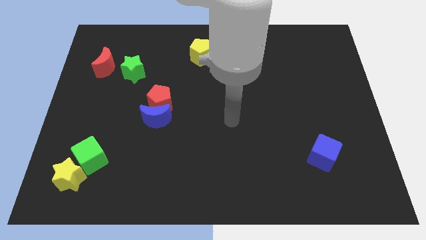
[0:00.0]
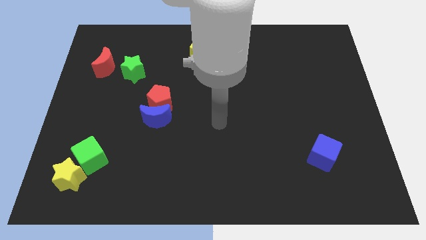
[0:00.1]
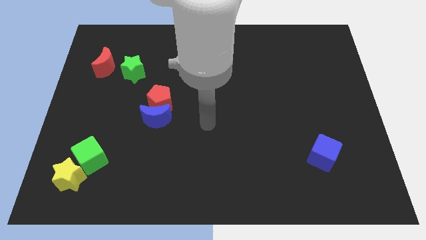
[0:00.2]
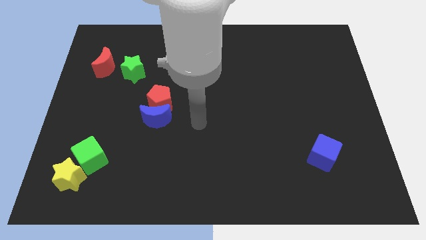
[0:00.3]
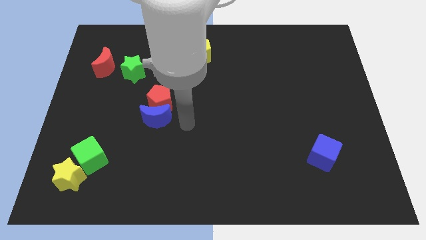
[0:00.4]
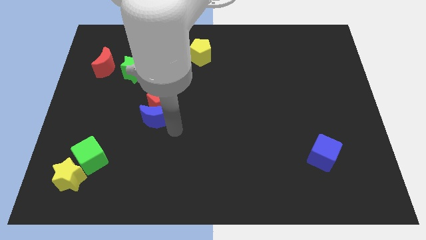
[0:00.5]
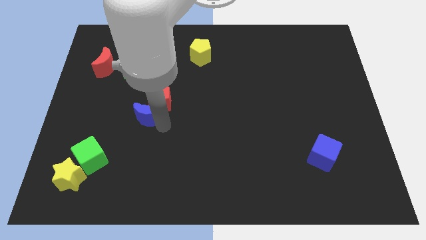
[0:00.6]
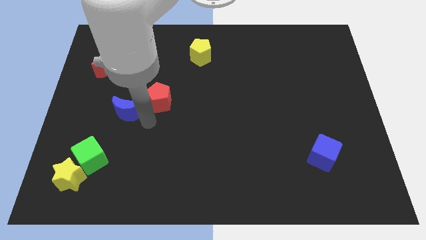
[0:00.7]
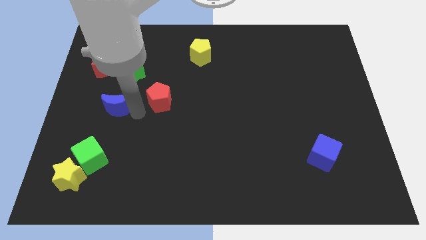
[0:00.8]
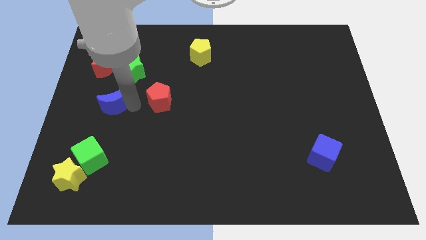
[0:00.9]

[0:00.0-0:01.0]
pull the red pentagon apart from the blue moon

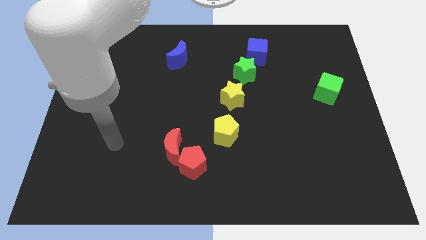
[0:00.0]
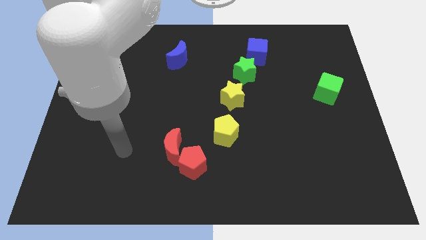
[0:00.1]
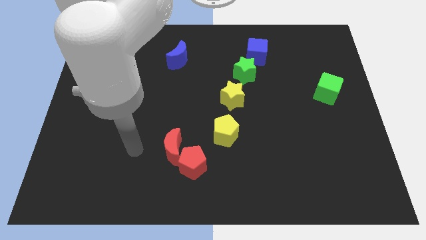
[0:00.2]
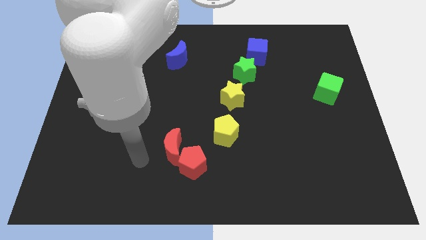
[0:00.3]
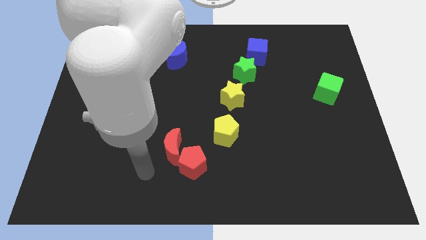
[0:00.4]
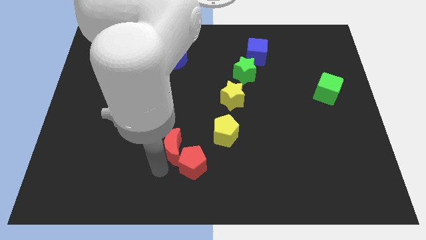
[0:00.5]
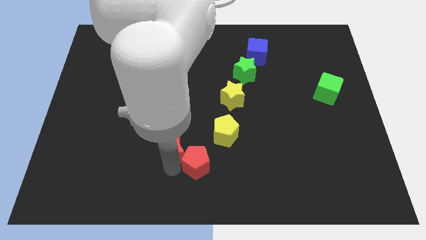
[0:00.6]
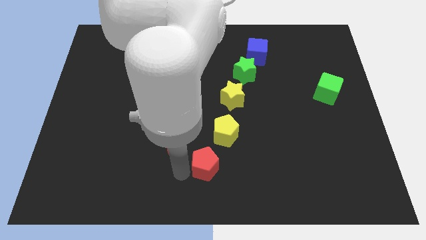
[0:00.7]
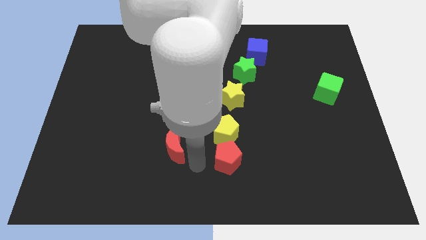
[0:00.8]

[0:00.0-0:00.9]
separate the red moon from the red pentagon

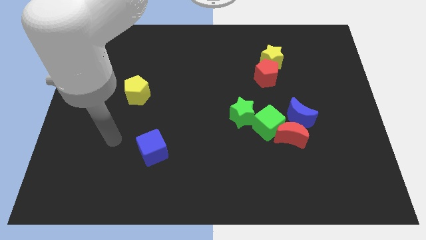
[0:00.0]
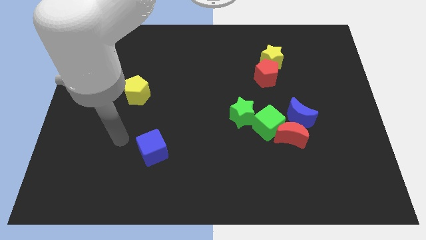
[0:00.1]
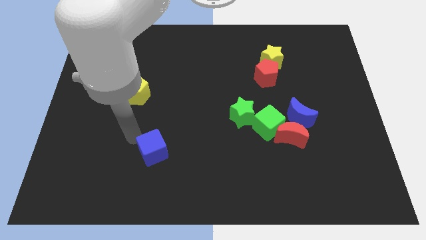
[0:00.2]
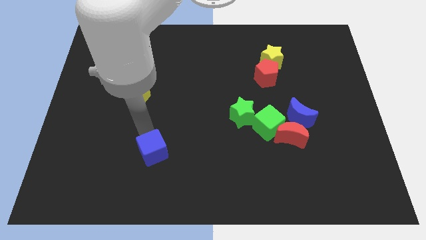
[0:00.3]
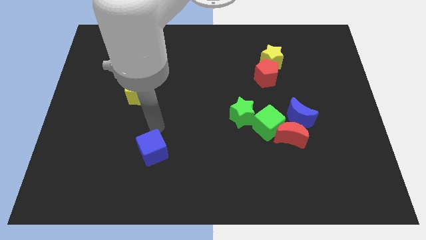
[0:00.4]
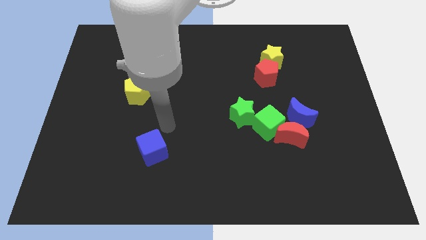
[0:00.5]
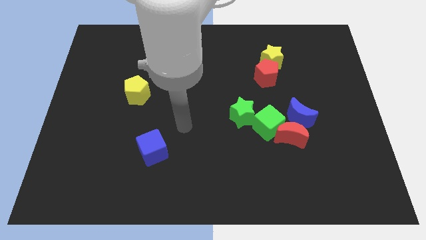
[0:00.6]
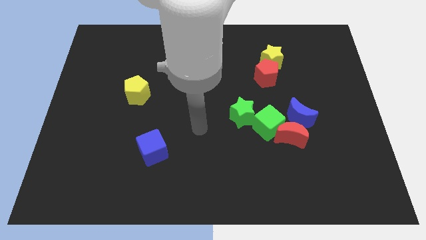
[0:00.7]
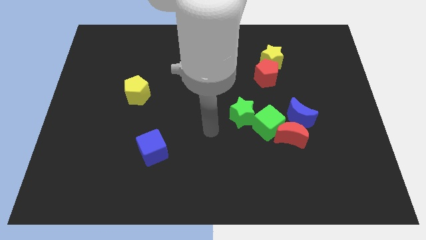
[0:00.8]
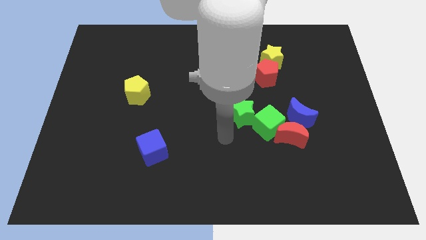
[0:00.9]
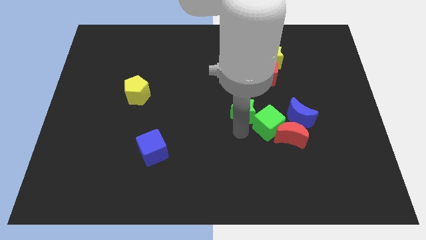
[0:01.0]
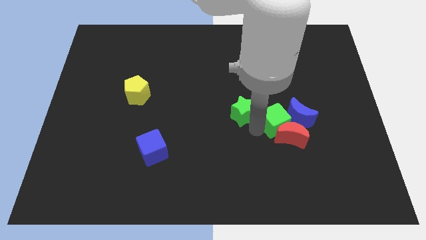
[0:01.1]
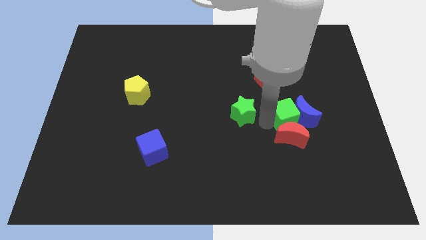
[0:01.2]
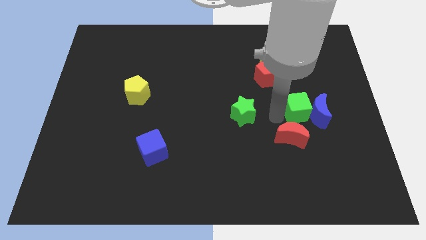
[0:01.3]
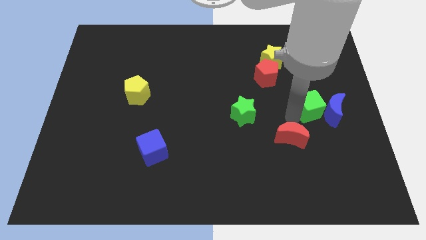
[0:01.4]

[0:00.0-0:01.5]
pull the red moon apart from the green cube and blue moon

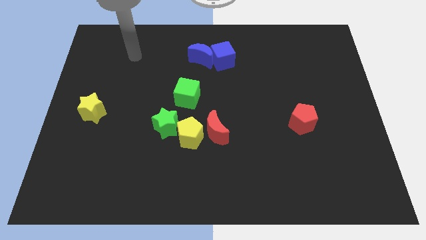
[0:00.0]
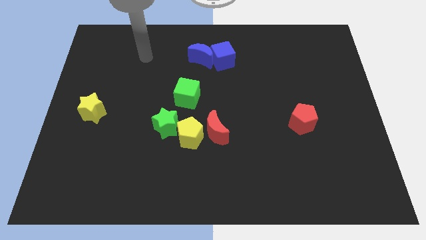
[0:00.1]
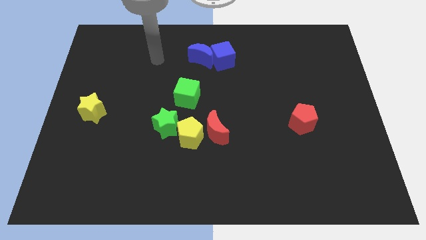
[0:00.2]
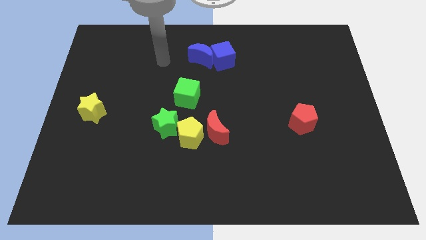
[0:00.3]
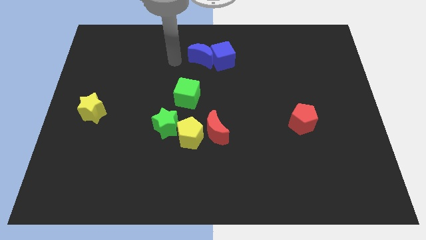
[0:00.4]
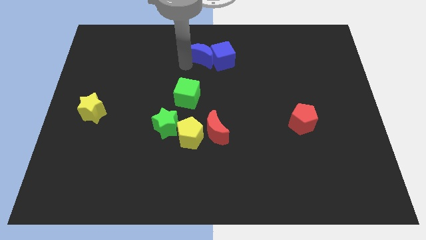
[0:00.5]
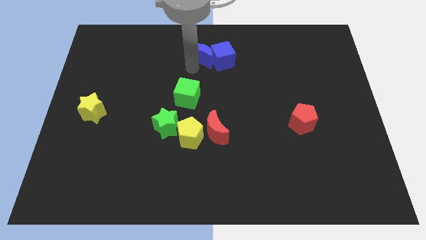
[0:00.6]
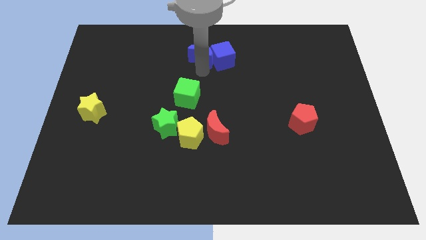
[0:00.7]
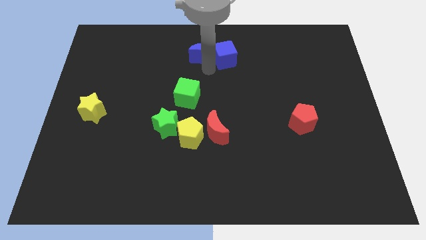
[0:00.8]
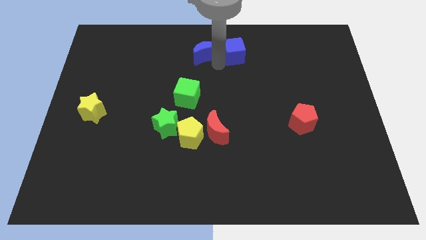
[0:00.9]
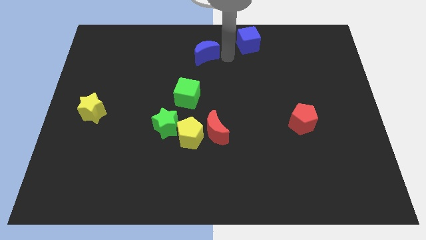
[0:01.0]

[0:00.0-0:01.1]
separate the blue moon from the blue cube

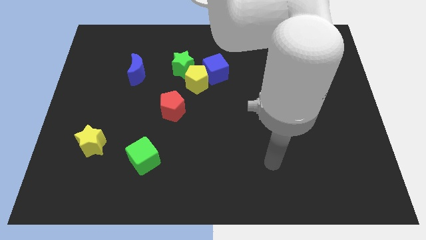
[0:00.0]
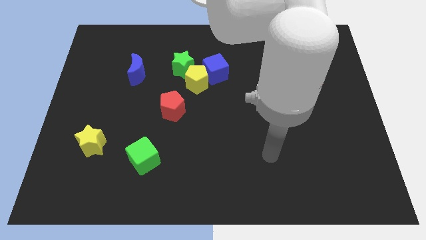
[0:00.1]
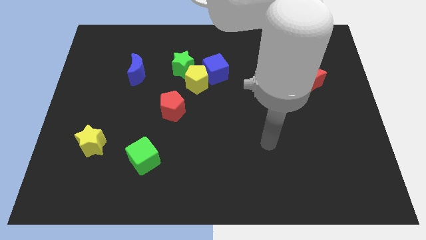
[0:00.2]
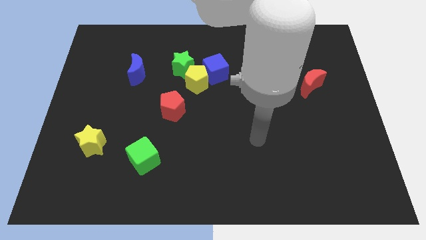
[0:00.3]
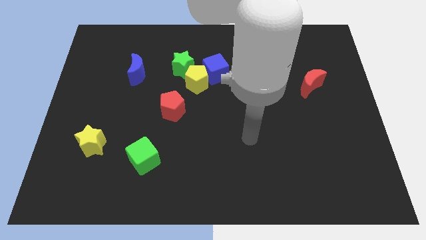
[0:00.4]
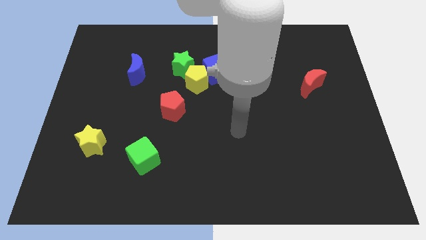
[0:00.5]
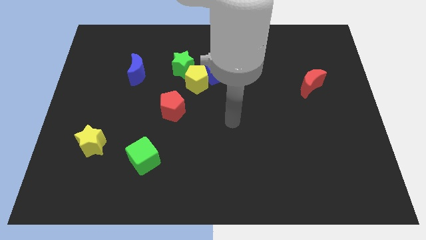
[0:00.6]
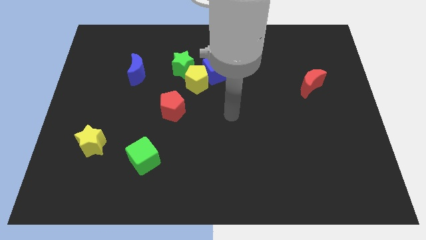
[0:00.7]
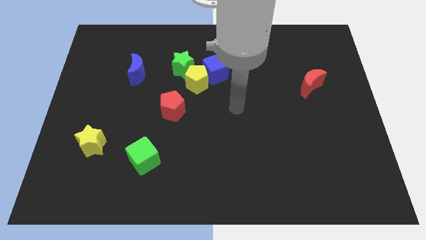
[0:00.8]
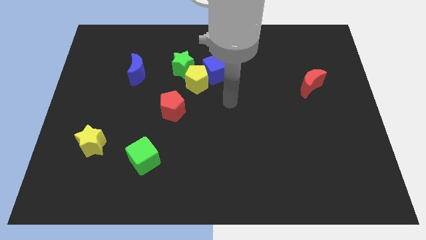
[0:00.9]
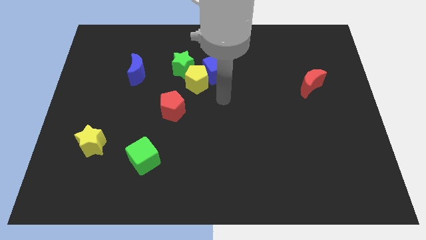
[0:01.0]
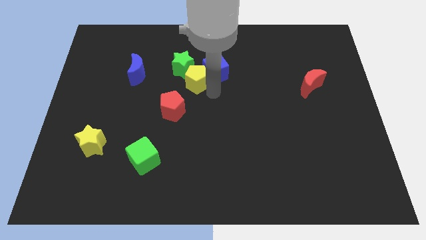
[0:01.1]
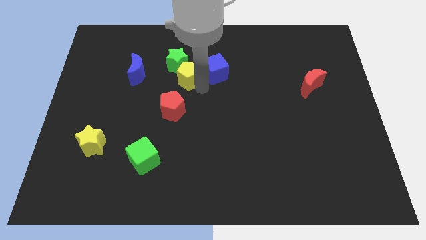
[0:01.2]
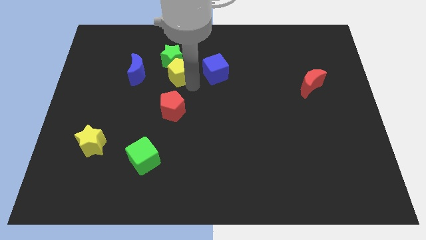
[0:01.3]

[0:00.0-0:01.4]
separate the blue cube from the yellow pentagon and green star

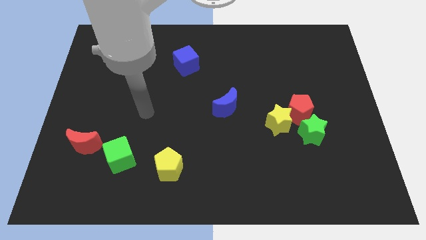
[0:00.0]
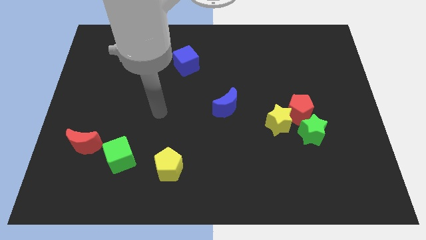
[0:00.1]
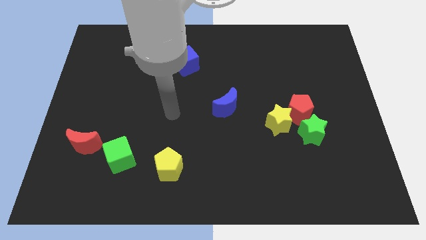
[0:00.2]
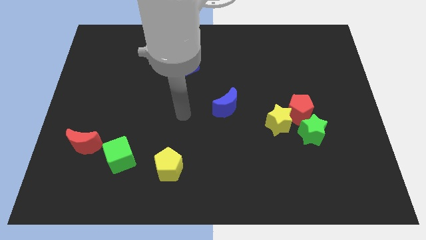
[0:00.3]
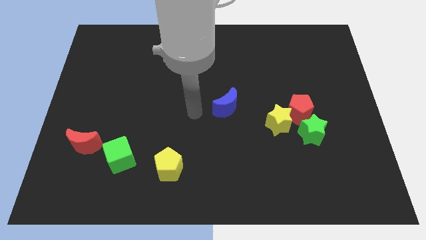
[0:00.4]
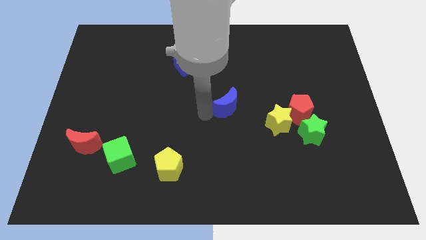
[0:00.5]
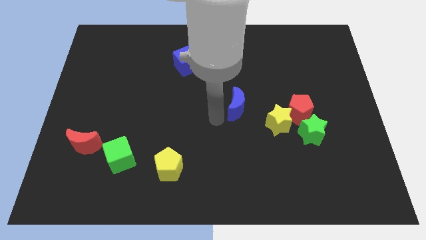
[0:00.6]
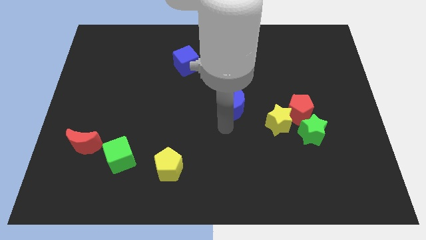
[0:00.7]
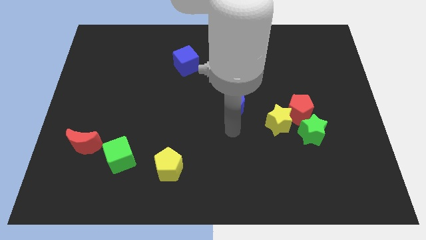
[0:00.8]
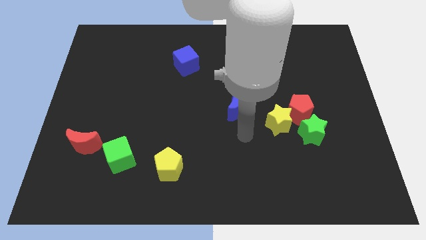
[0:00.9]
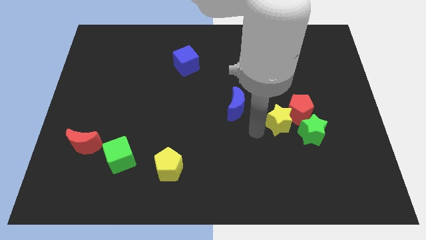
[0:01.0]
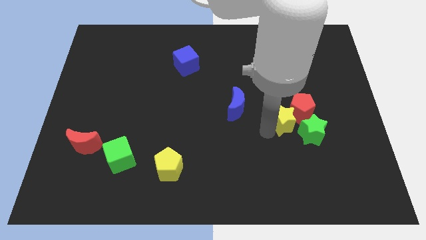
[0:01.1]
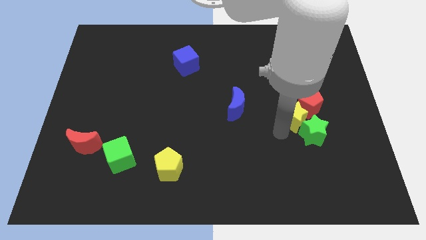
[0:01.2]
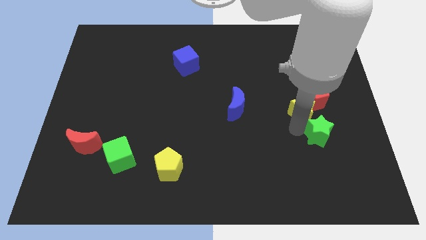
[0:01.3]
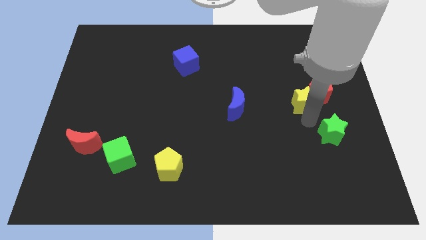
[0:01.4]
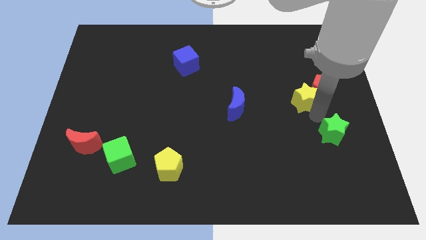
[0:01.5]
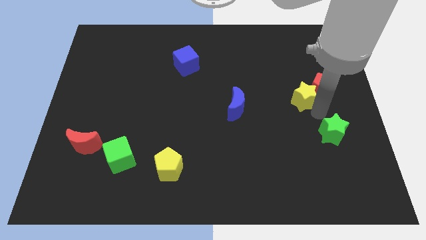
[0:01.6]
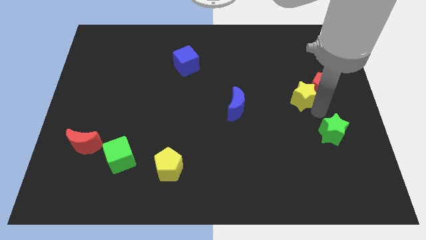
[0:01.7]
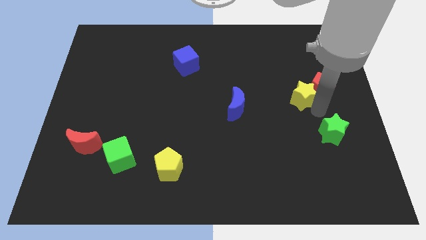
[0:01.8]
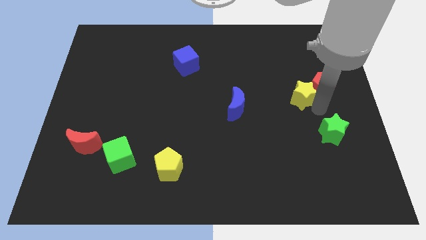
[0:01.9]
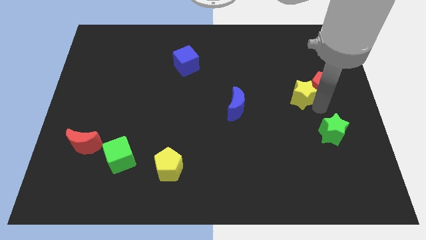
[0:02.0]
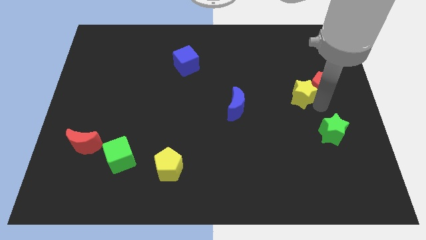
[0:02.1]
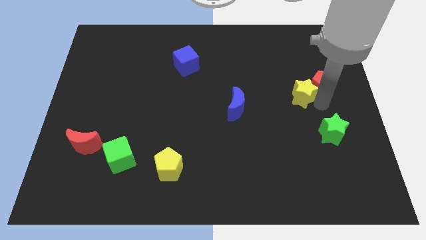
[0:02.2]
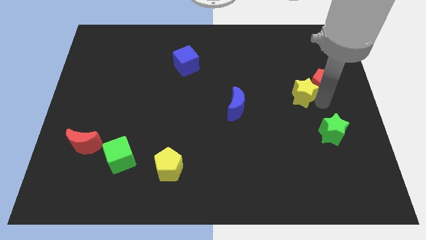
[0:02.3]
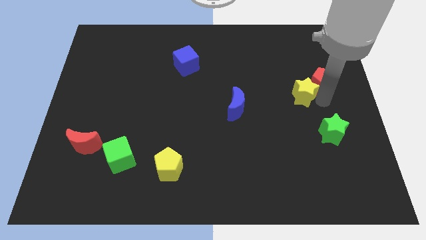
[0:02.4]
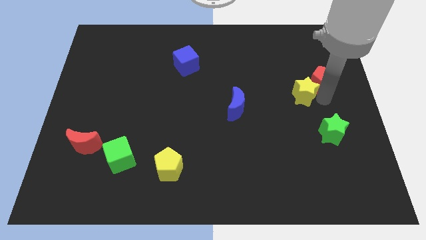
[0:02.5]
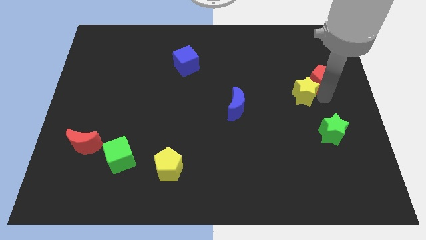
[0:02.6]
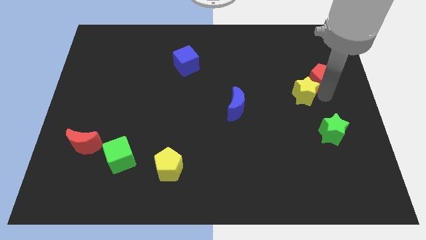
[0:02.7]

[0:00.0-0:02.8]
pull the red pentagon apart from the yellow star and green star

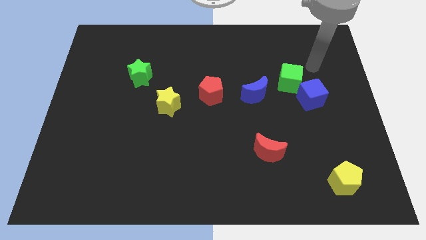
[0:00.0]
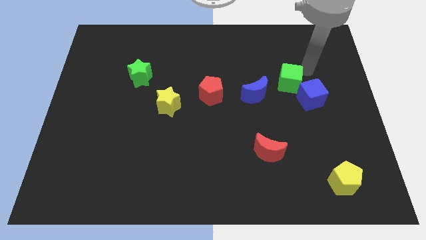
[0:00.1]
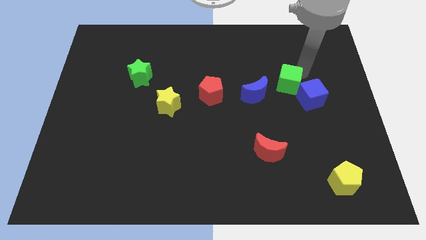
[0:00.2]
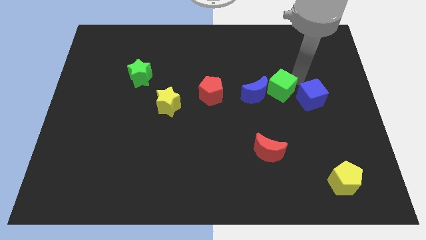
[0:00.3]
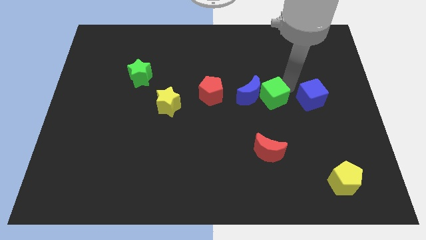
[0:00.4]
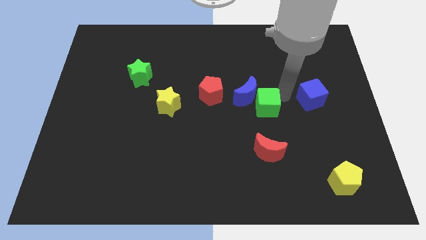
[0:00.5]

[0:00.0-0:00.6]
pull the blue cube apart from the green cube
